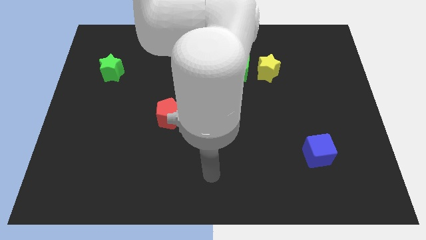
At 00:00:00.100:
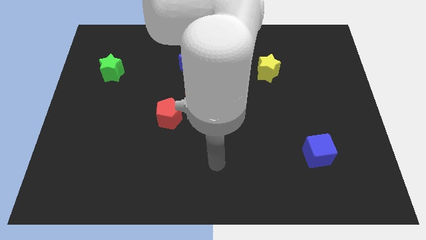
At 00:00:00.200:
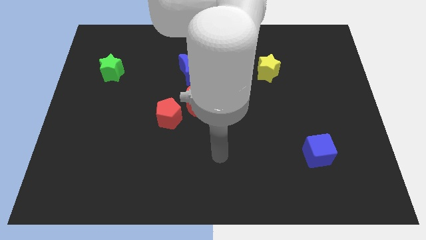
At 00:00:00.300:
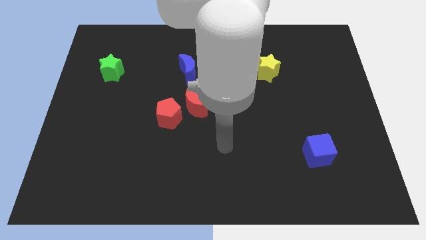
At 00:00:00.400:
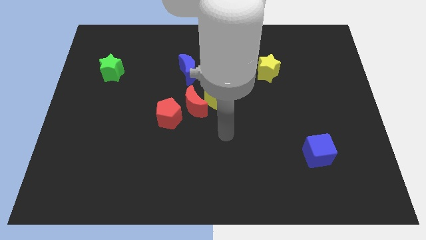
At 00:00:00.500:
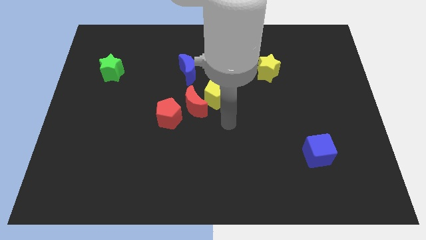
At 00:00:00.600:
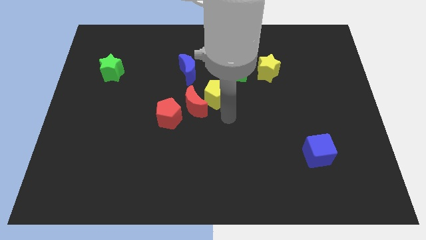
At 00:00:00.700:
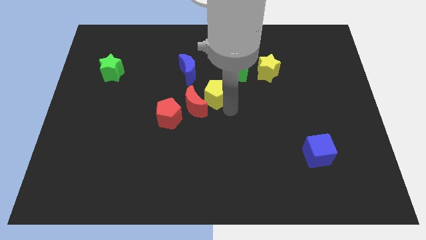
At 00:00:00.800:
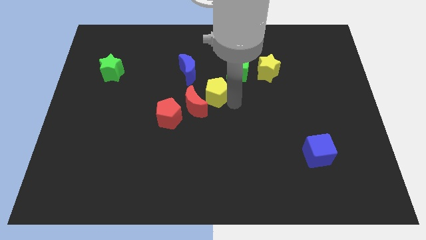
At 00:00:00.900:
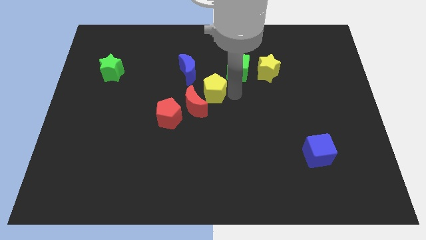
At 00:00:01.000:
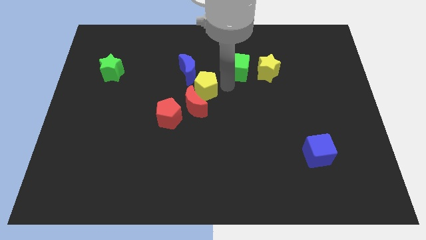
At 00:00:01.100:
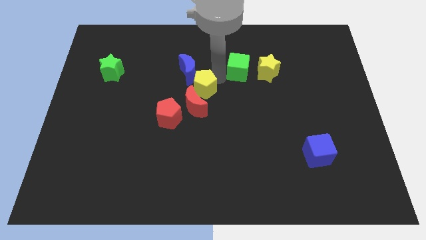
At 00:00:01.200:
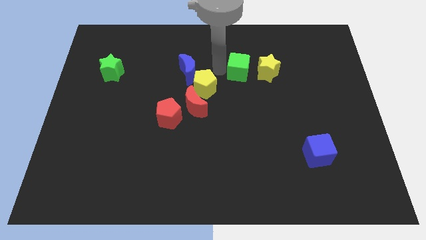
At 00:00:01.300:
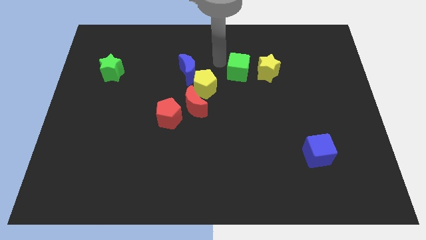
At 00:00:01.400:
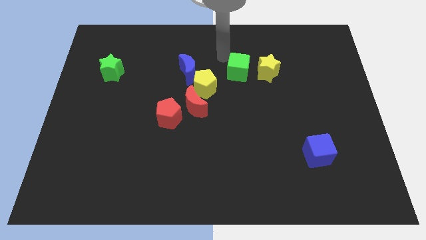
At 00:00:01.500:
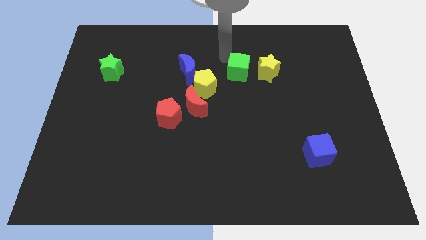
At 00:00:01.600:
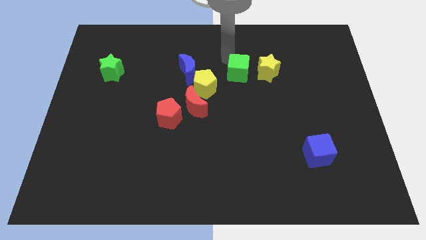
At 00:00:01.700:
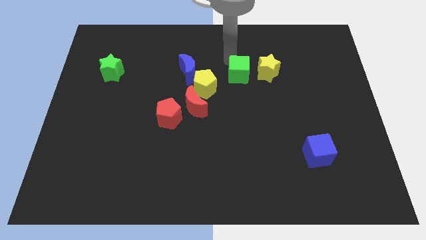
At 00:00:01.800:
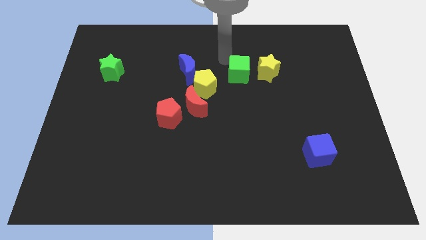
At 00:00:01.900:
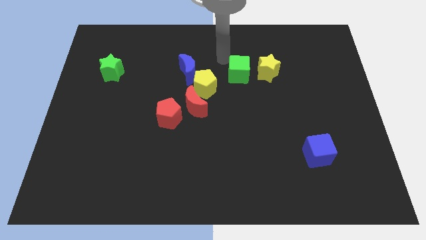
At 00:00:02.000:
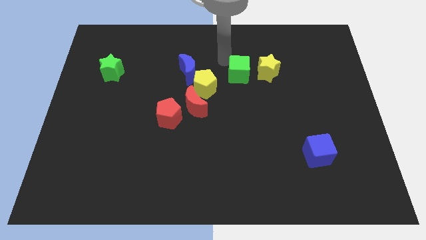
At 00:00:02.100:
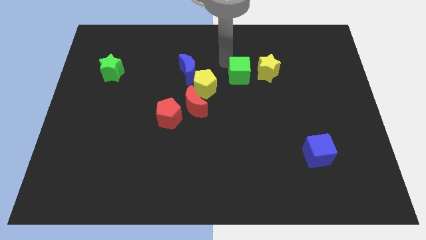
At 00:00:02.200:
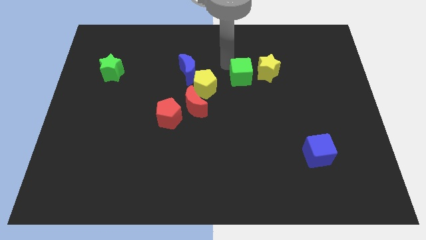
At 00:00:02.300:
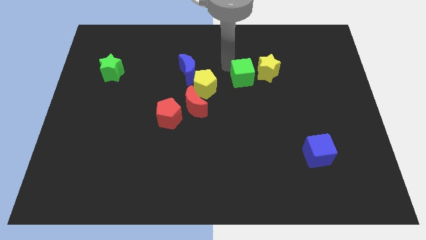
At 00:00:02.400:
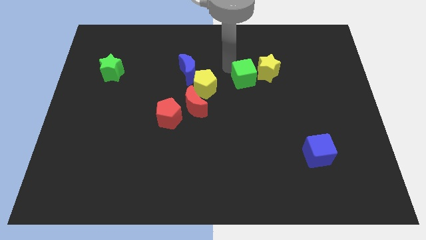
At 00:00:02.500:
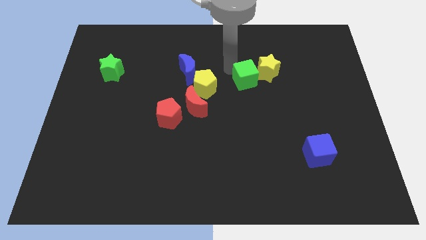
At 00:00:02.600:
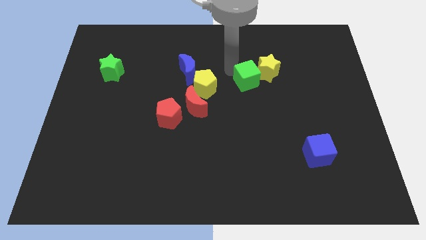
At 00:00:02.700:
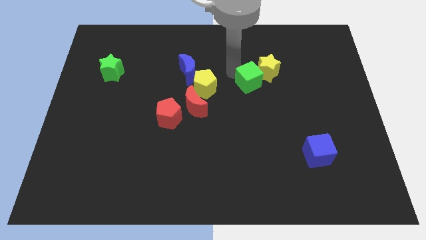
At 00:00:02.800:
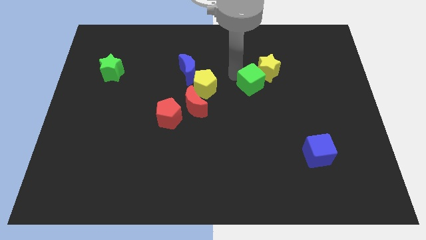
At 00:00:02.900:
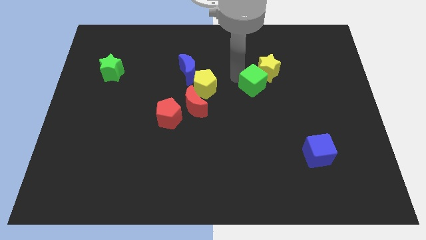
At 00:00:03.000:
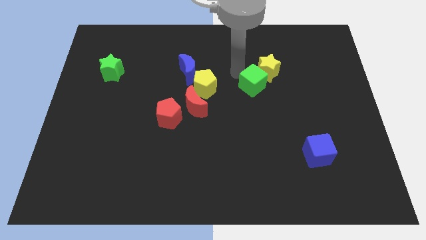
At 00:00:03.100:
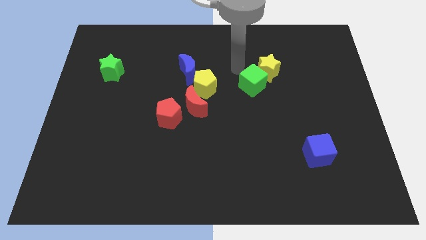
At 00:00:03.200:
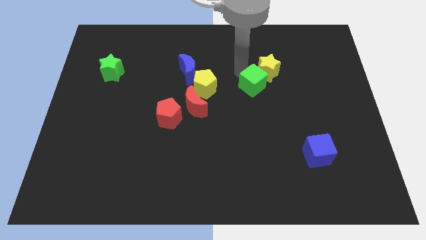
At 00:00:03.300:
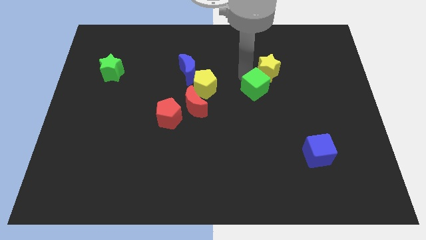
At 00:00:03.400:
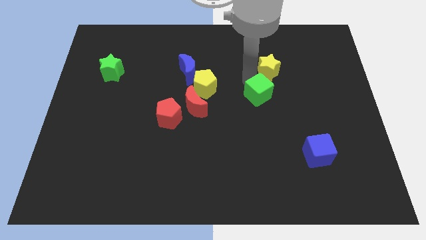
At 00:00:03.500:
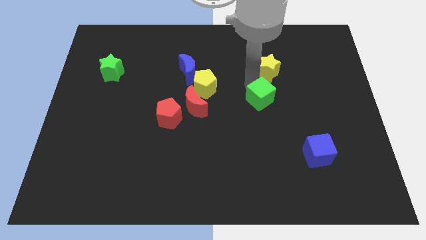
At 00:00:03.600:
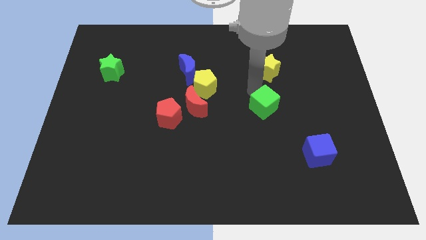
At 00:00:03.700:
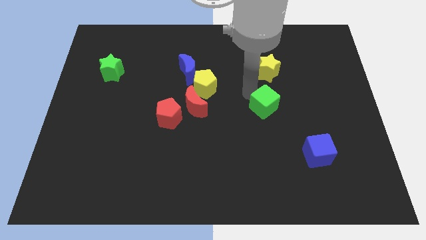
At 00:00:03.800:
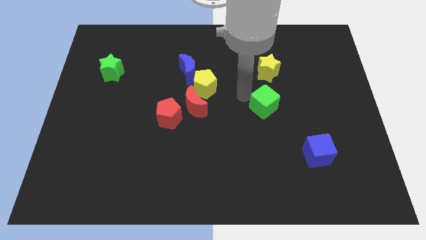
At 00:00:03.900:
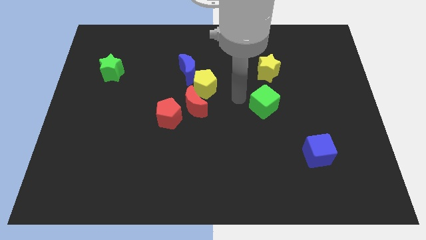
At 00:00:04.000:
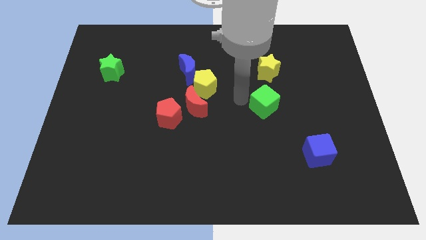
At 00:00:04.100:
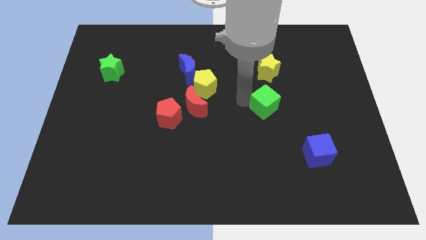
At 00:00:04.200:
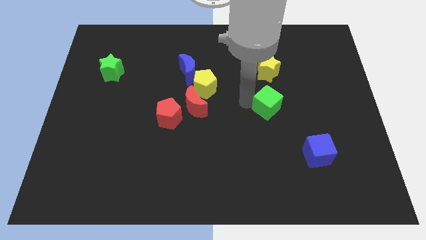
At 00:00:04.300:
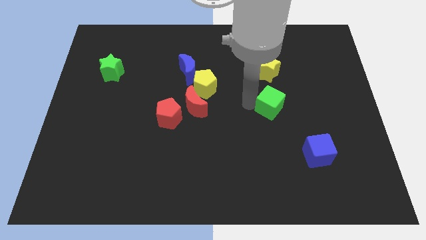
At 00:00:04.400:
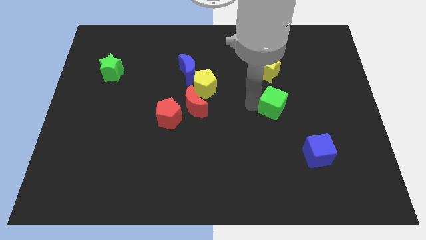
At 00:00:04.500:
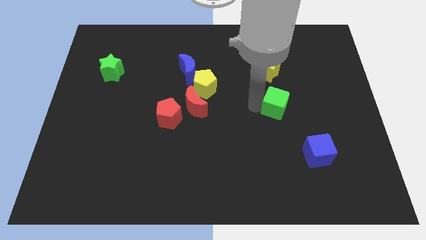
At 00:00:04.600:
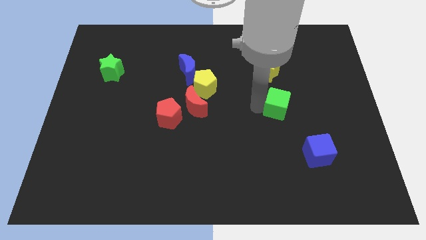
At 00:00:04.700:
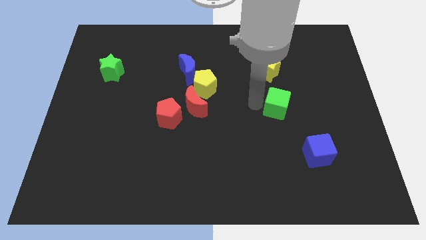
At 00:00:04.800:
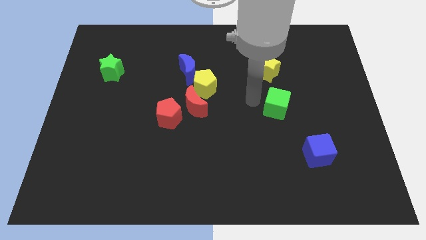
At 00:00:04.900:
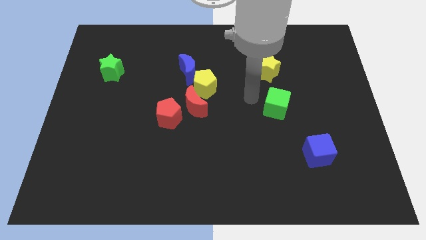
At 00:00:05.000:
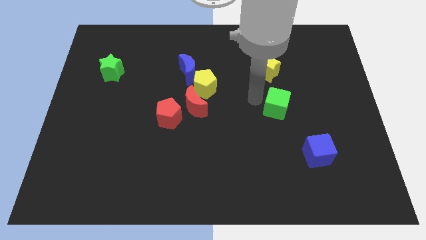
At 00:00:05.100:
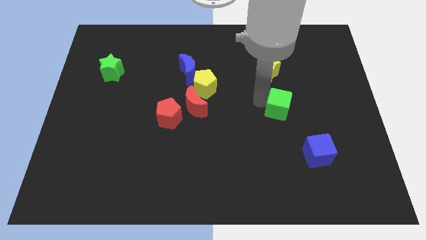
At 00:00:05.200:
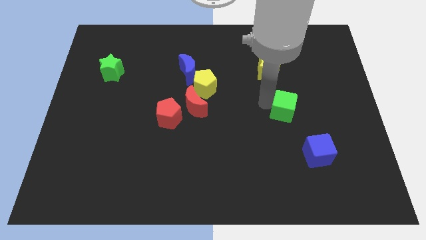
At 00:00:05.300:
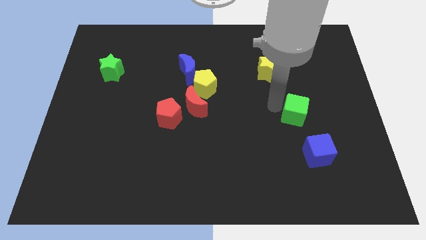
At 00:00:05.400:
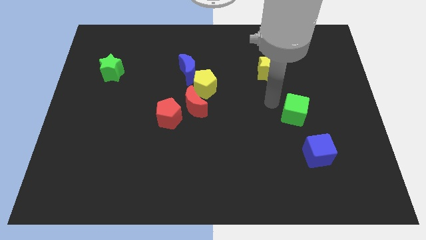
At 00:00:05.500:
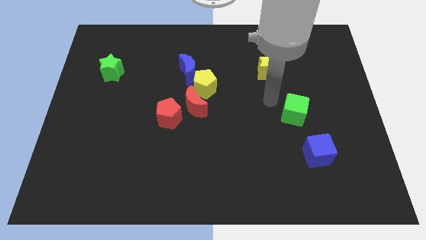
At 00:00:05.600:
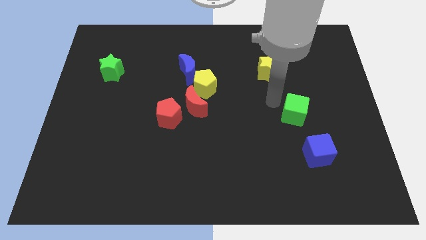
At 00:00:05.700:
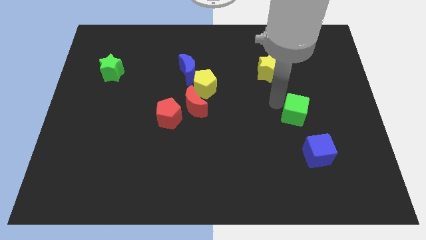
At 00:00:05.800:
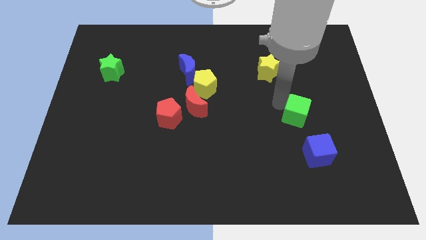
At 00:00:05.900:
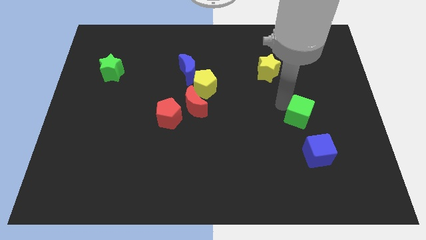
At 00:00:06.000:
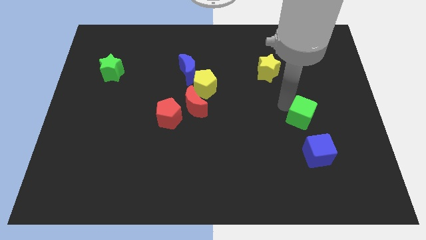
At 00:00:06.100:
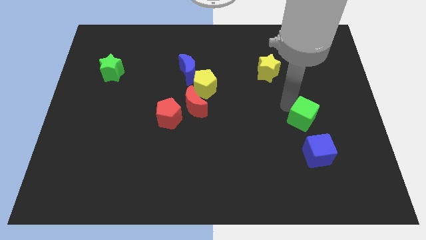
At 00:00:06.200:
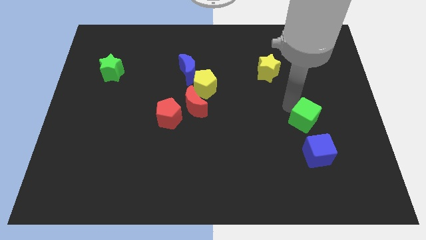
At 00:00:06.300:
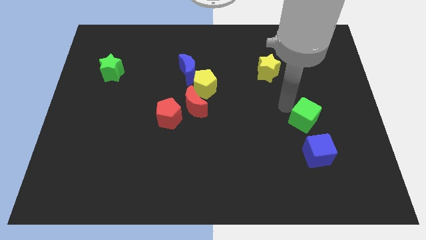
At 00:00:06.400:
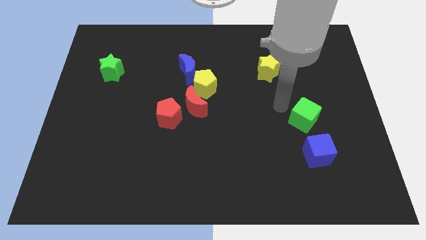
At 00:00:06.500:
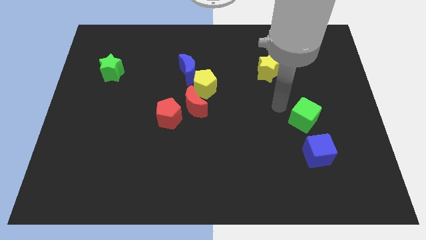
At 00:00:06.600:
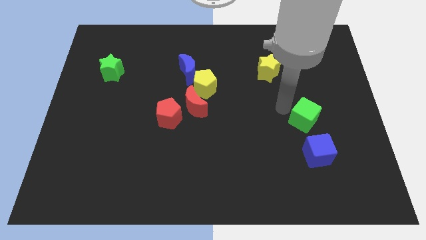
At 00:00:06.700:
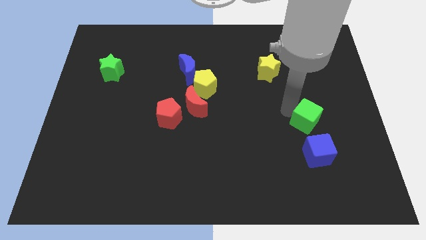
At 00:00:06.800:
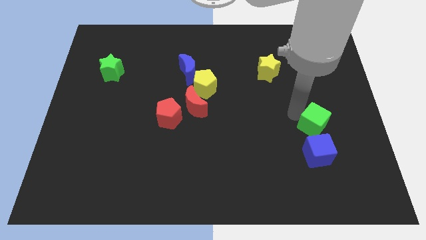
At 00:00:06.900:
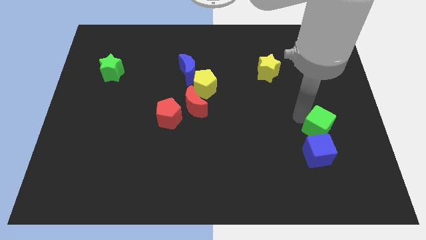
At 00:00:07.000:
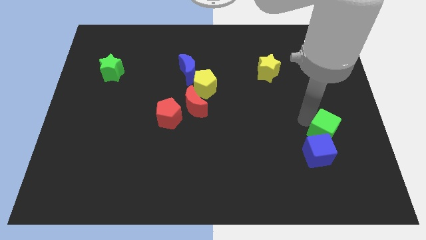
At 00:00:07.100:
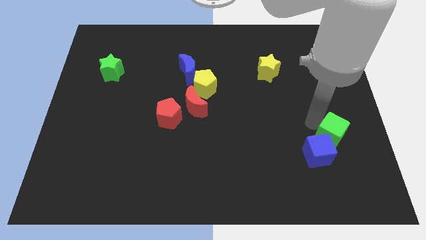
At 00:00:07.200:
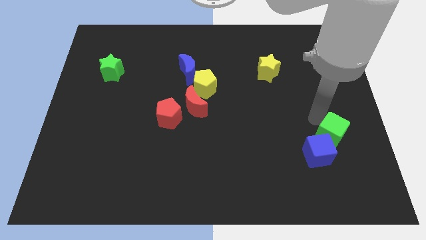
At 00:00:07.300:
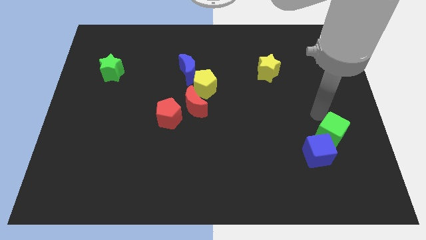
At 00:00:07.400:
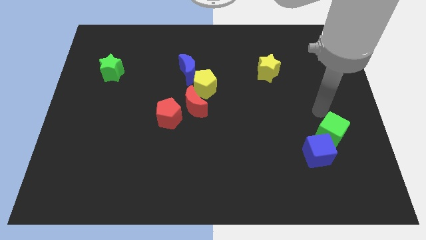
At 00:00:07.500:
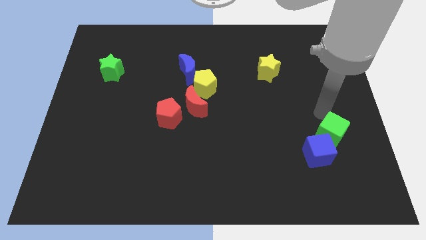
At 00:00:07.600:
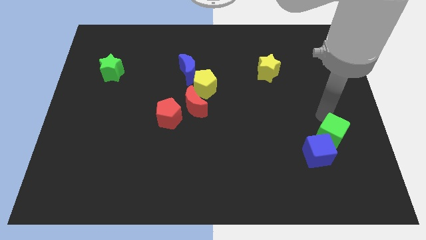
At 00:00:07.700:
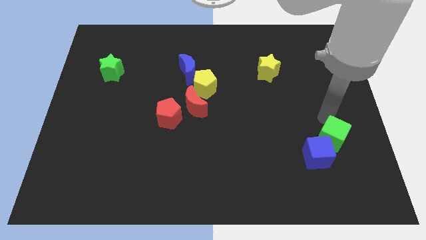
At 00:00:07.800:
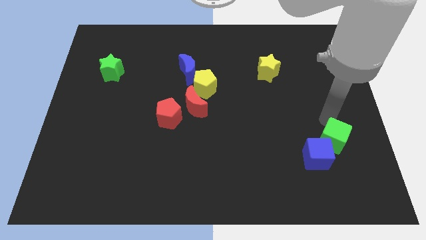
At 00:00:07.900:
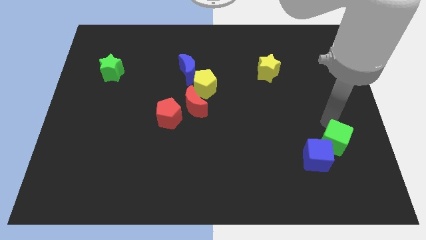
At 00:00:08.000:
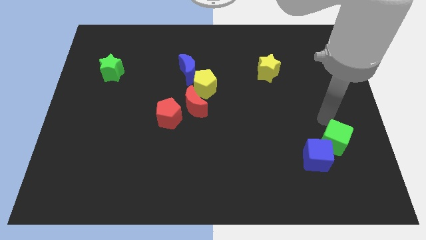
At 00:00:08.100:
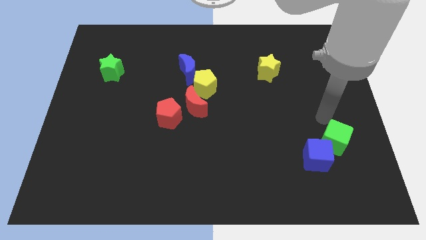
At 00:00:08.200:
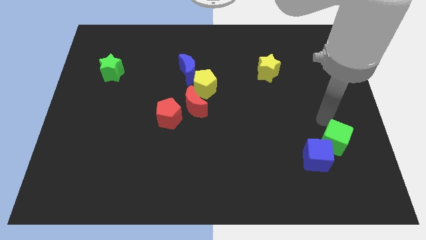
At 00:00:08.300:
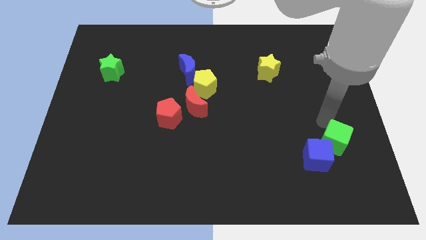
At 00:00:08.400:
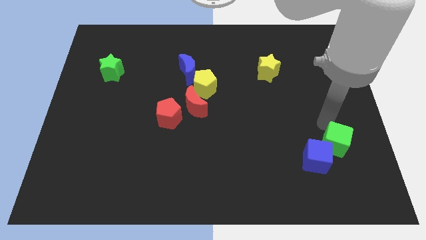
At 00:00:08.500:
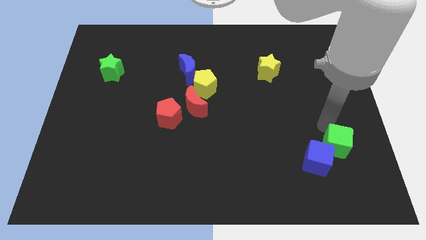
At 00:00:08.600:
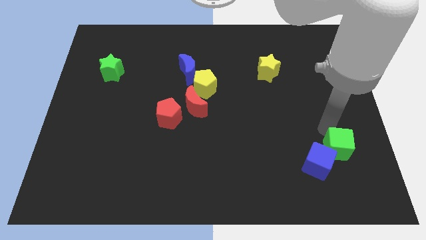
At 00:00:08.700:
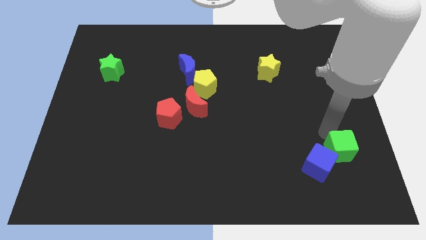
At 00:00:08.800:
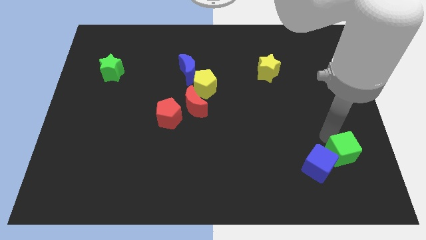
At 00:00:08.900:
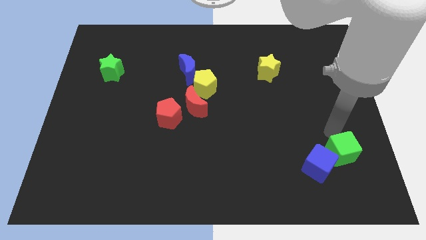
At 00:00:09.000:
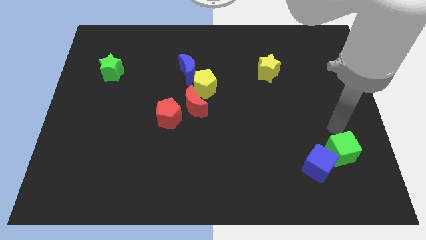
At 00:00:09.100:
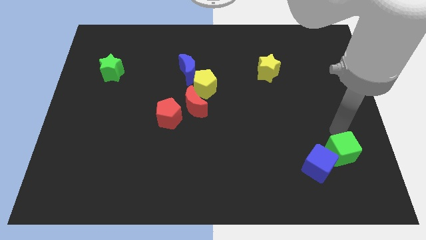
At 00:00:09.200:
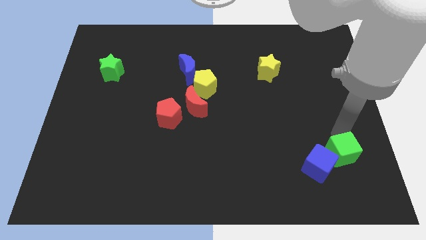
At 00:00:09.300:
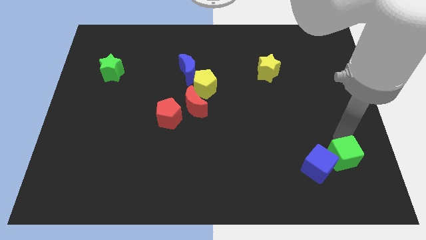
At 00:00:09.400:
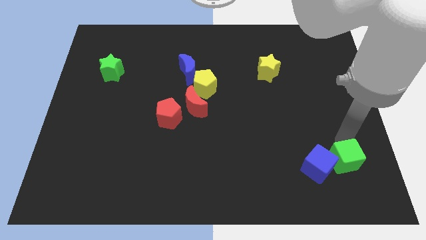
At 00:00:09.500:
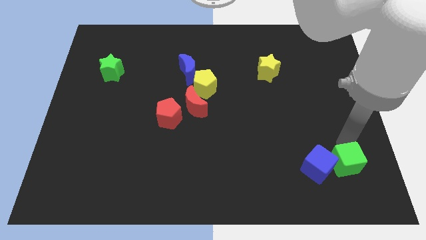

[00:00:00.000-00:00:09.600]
move the green cube to the bottom right of the blue cube
